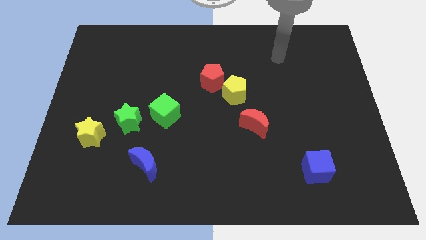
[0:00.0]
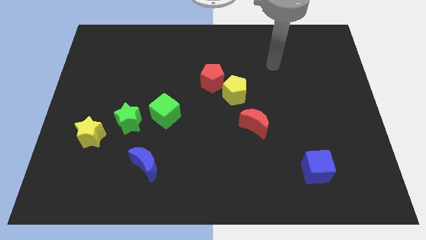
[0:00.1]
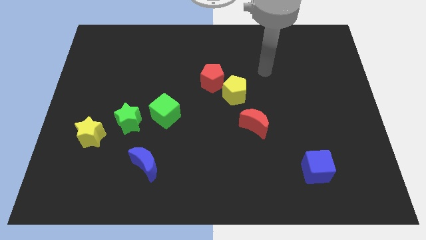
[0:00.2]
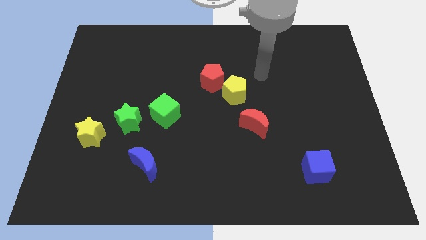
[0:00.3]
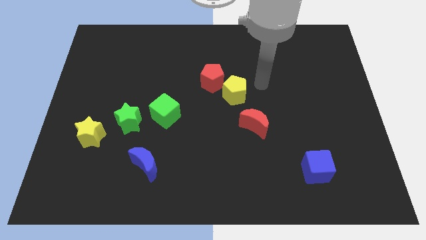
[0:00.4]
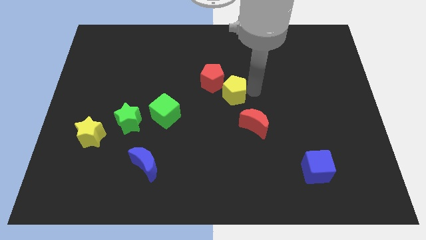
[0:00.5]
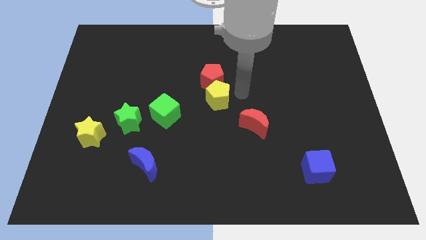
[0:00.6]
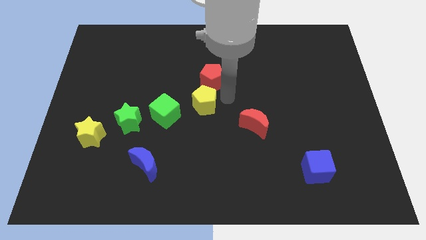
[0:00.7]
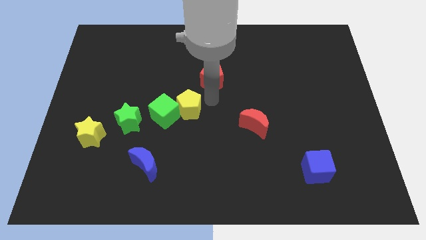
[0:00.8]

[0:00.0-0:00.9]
separate the red pentagon from the yellow pentagon

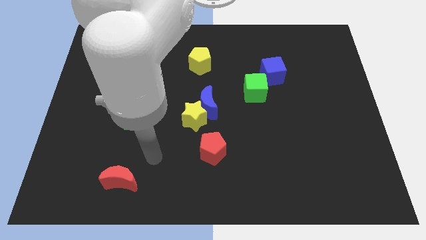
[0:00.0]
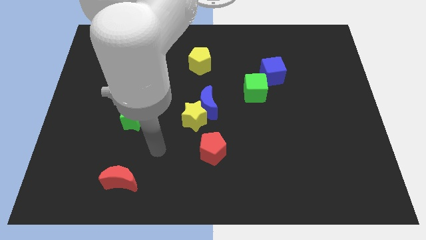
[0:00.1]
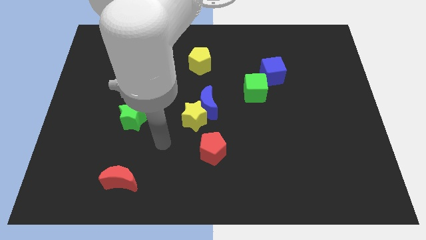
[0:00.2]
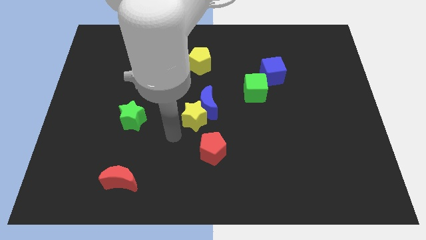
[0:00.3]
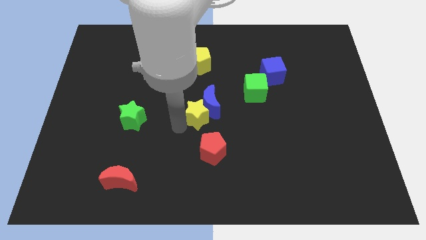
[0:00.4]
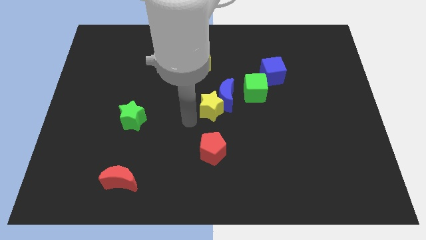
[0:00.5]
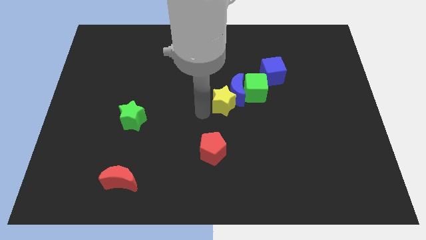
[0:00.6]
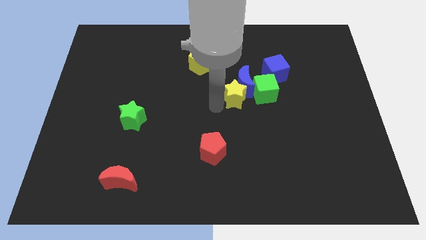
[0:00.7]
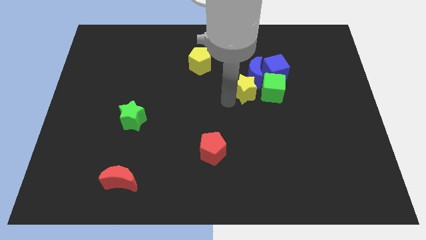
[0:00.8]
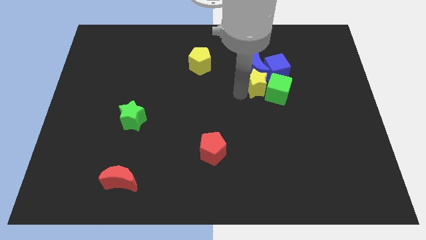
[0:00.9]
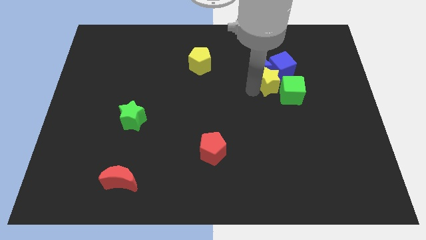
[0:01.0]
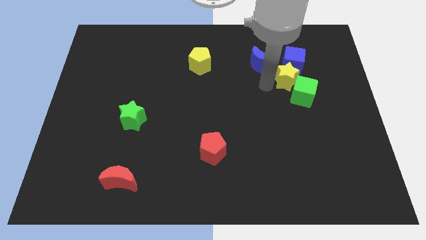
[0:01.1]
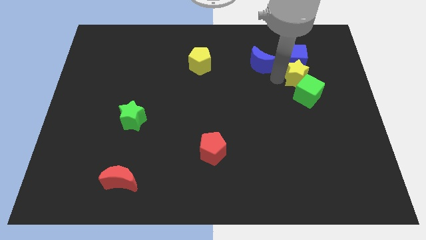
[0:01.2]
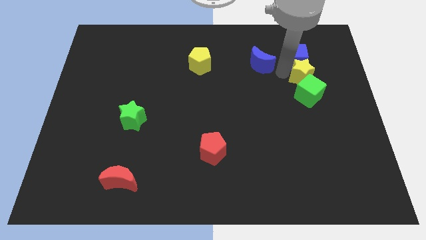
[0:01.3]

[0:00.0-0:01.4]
pull the blue moon apart from the yellow star

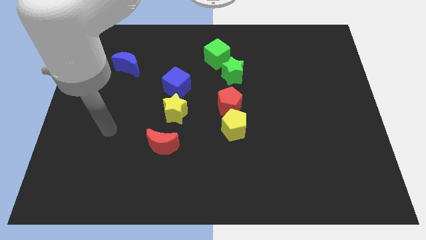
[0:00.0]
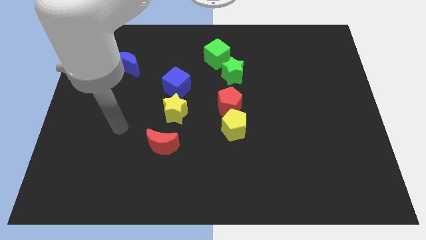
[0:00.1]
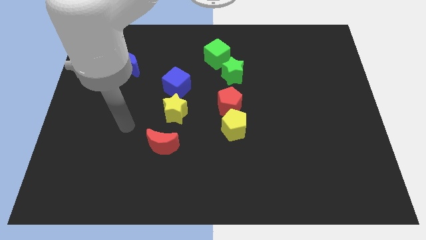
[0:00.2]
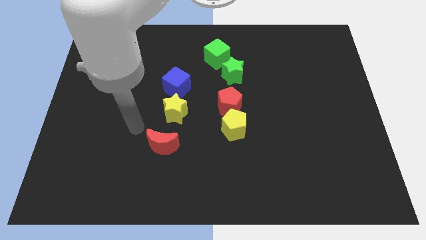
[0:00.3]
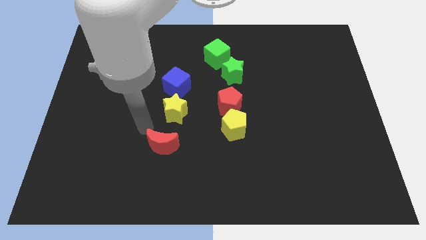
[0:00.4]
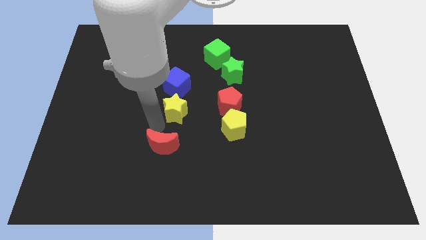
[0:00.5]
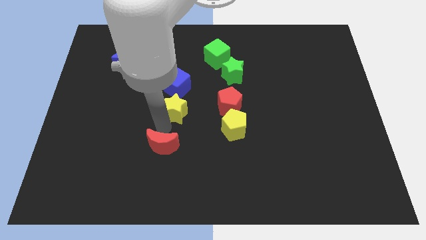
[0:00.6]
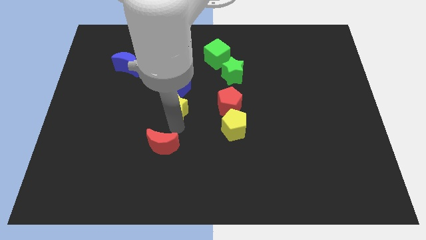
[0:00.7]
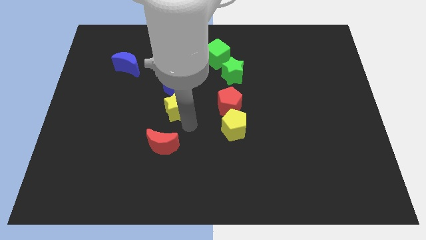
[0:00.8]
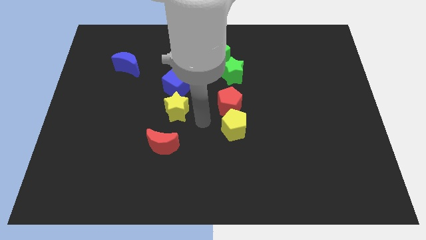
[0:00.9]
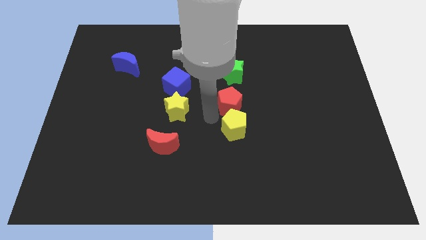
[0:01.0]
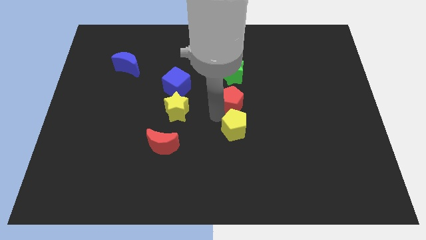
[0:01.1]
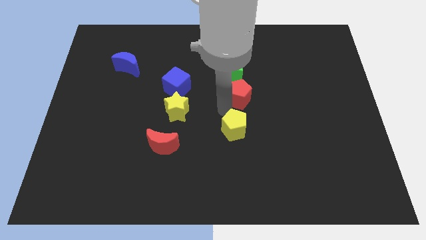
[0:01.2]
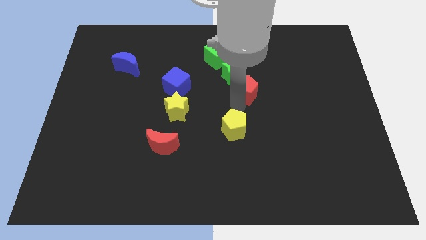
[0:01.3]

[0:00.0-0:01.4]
move the yellow pentagon away from the red pentagon

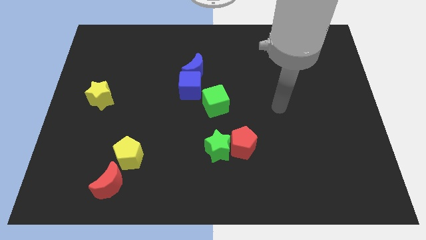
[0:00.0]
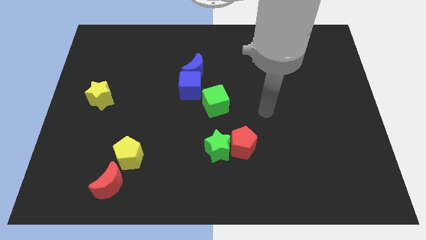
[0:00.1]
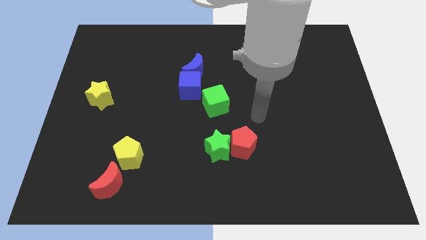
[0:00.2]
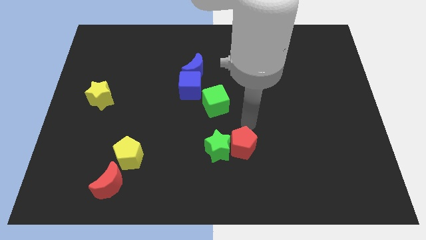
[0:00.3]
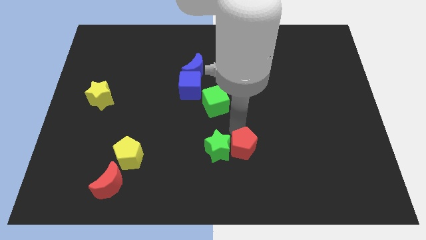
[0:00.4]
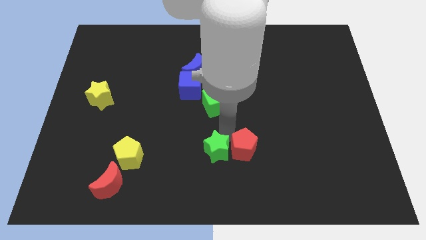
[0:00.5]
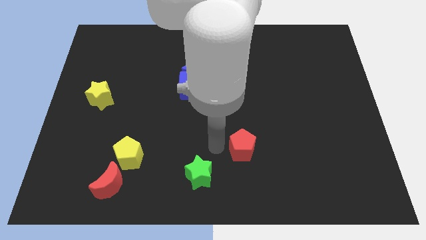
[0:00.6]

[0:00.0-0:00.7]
move the red pentagon away from the green star

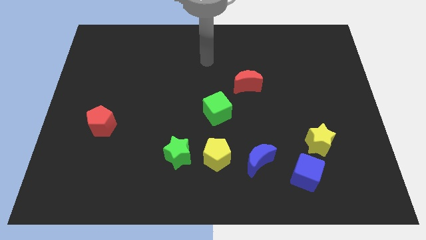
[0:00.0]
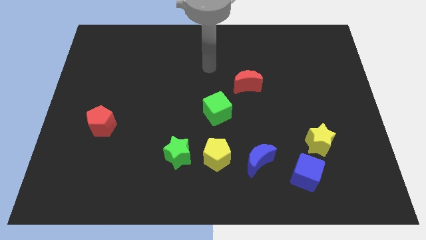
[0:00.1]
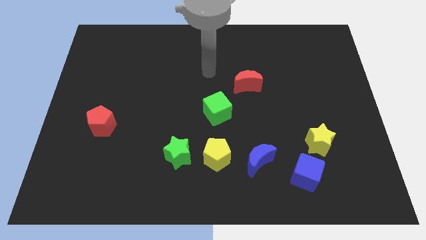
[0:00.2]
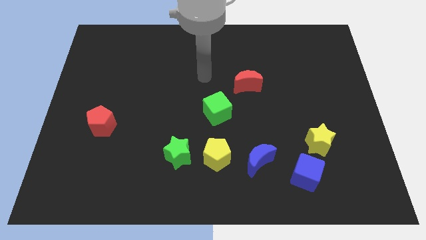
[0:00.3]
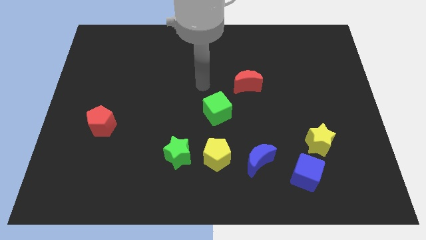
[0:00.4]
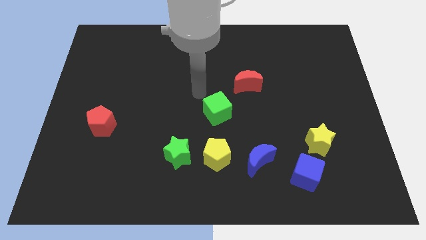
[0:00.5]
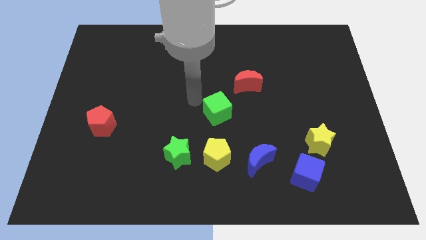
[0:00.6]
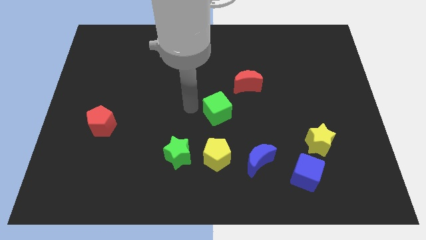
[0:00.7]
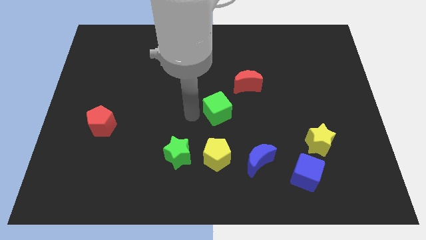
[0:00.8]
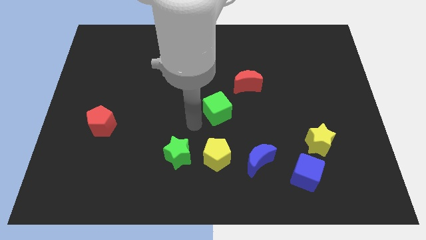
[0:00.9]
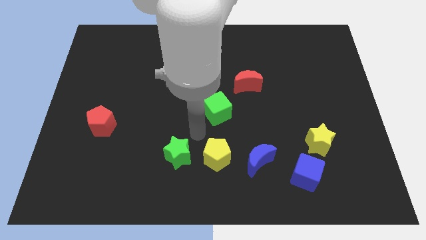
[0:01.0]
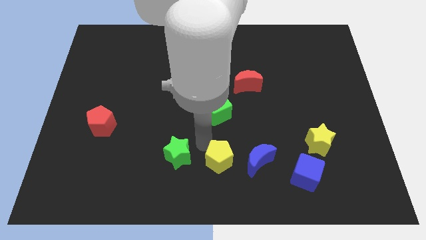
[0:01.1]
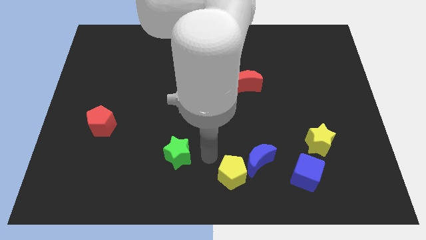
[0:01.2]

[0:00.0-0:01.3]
separate the green star from the yellow pentagon

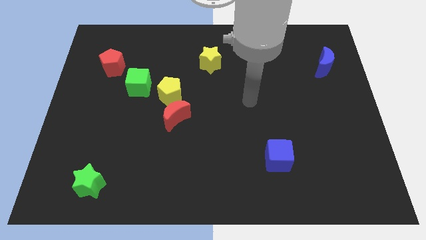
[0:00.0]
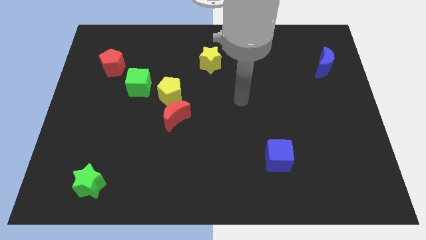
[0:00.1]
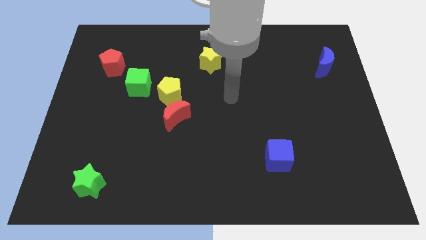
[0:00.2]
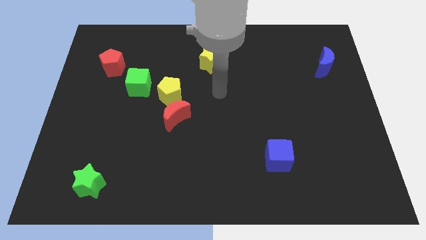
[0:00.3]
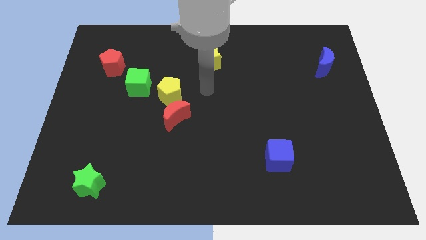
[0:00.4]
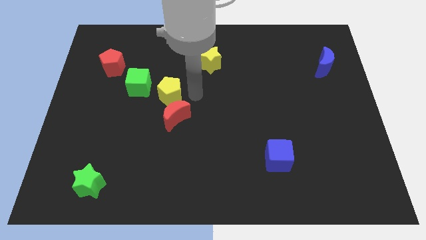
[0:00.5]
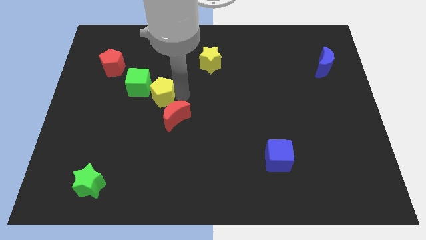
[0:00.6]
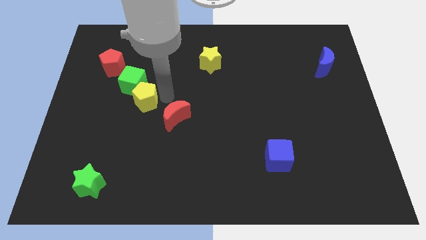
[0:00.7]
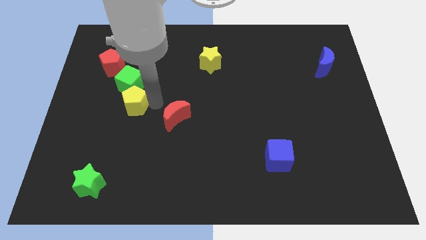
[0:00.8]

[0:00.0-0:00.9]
pull the red moon apart from the yellow pentagon

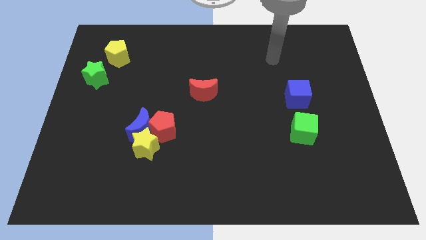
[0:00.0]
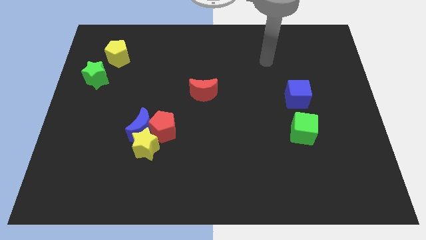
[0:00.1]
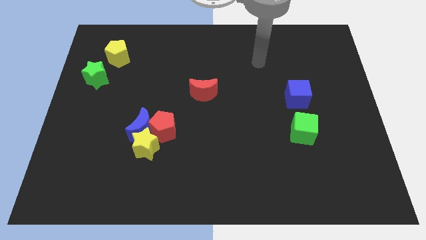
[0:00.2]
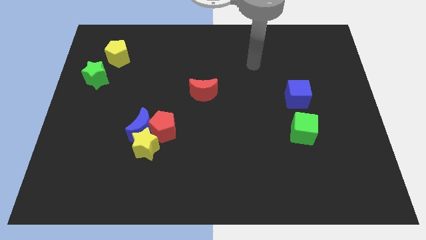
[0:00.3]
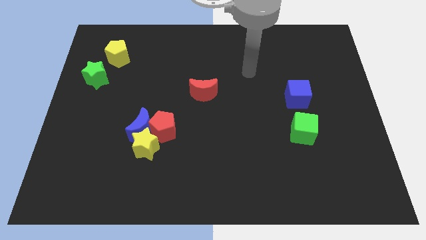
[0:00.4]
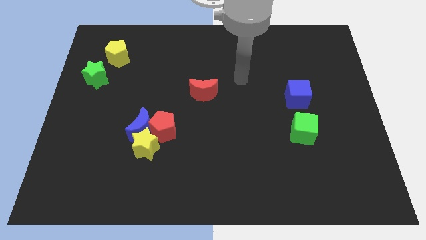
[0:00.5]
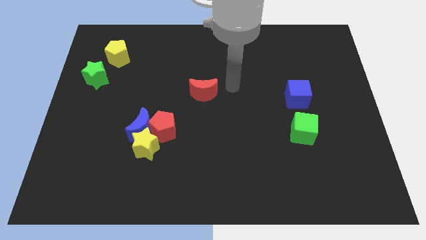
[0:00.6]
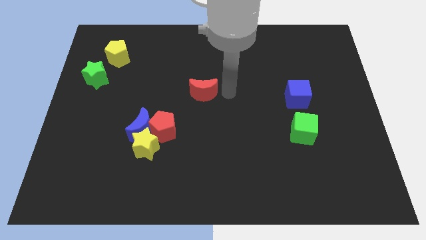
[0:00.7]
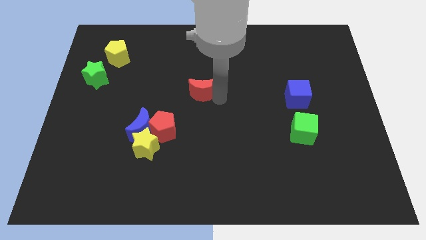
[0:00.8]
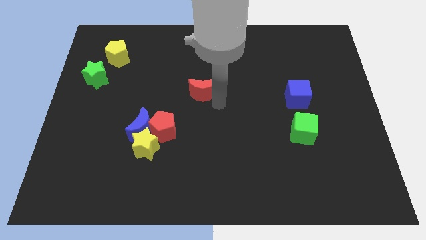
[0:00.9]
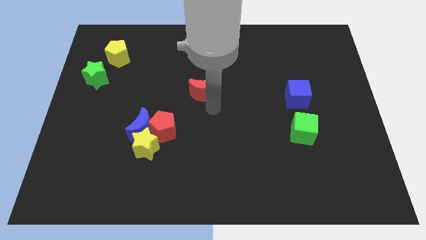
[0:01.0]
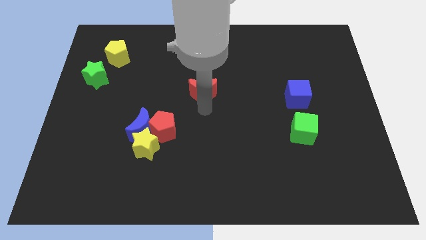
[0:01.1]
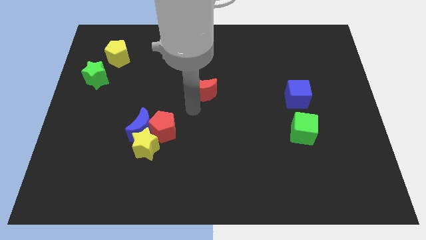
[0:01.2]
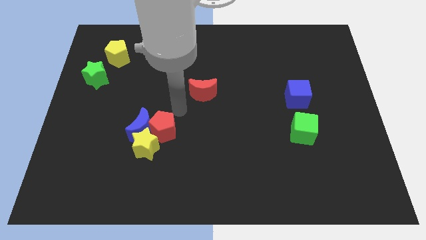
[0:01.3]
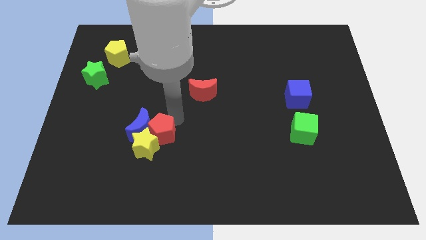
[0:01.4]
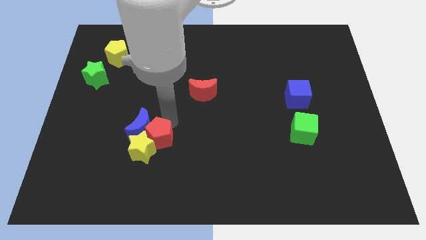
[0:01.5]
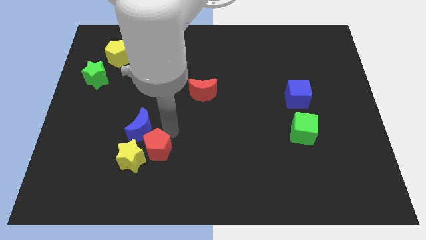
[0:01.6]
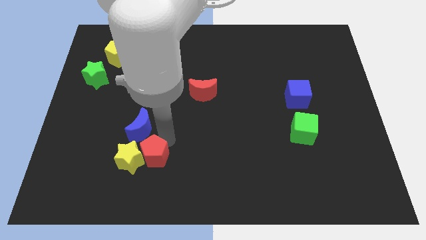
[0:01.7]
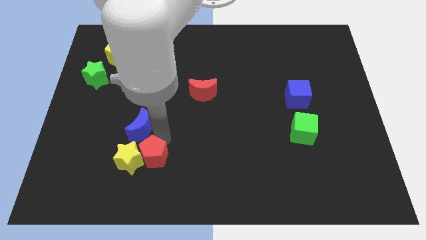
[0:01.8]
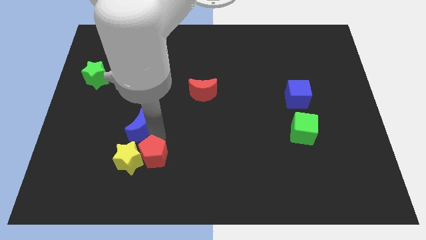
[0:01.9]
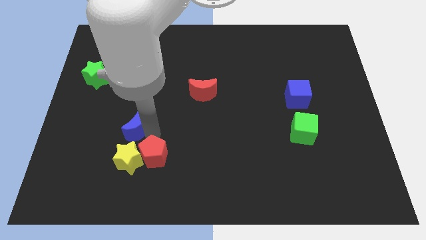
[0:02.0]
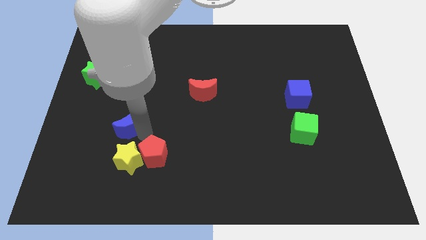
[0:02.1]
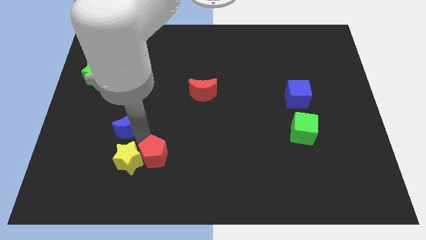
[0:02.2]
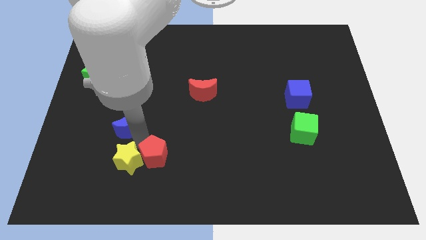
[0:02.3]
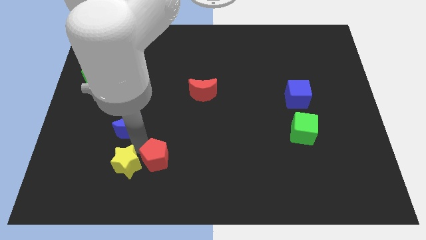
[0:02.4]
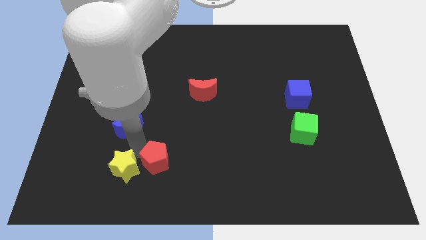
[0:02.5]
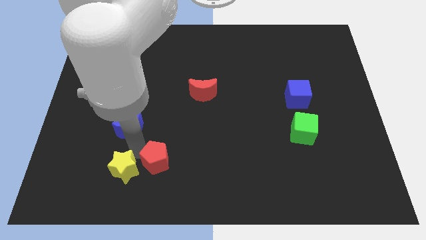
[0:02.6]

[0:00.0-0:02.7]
pull the blue moon apart from the yellow star and red pentagon
